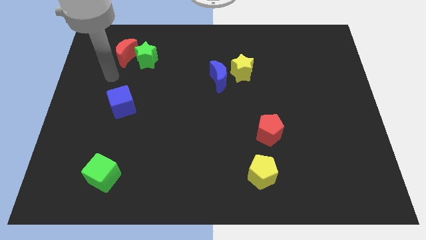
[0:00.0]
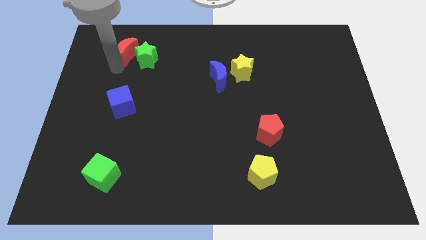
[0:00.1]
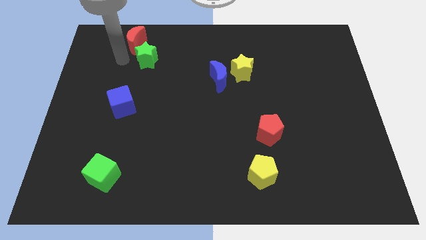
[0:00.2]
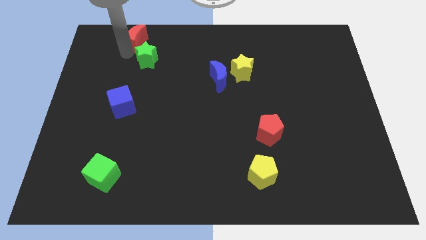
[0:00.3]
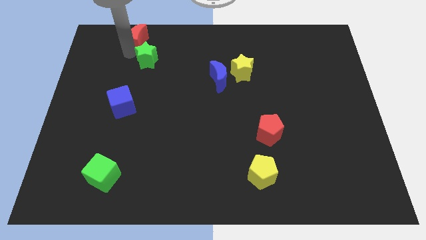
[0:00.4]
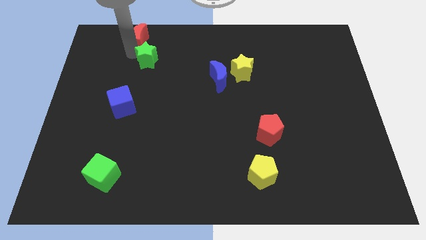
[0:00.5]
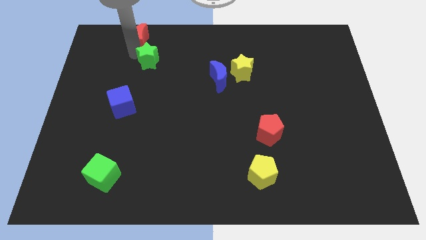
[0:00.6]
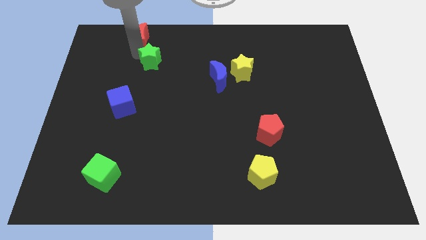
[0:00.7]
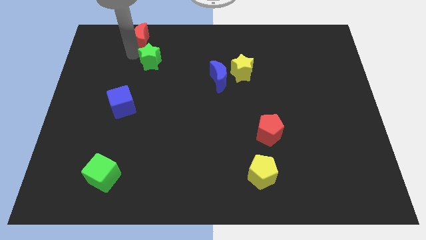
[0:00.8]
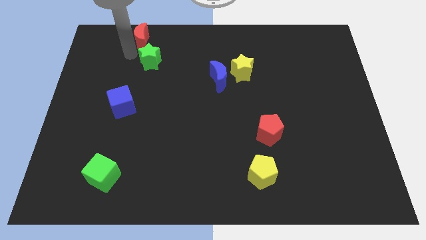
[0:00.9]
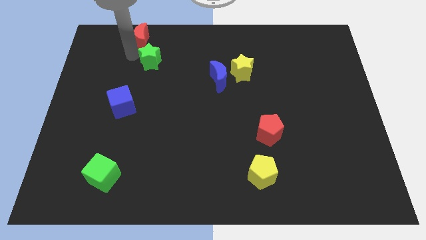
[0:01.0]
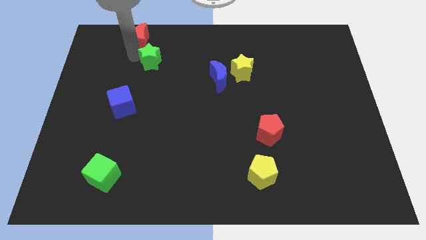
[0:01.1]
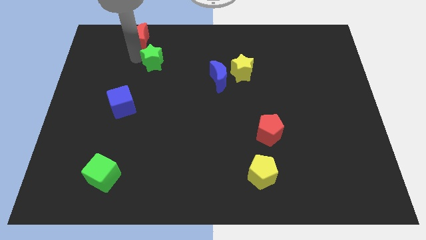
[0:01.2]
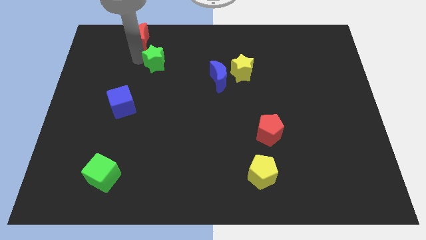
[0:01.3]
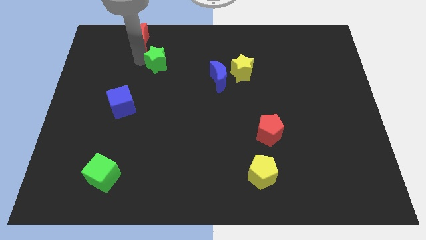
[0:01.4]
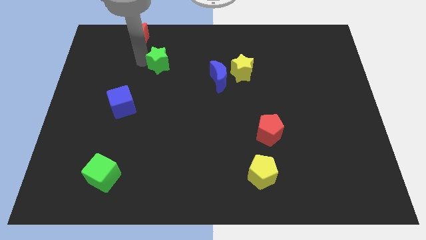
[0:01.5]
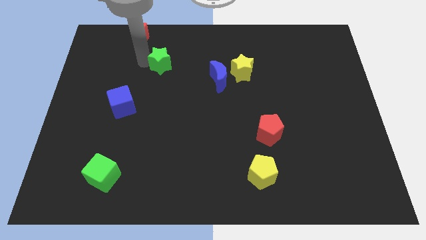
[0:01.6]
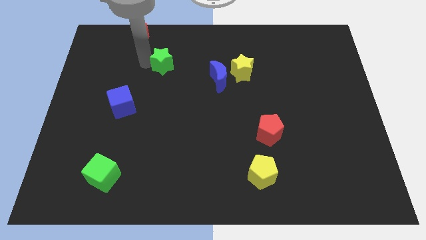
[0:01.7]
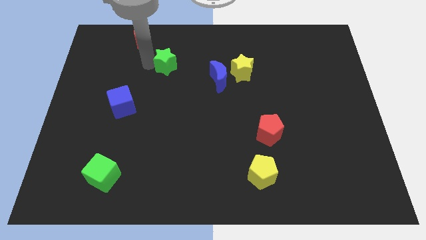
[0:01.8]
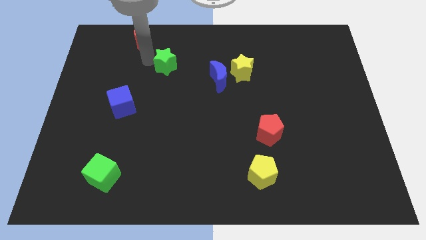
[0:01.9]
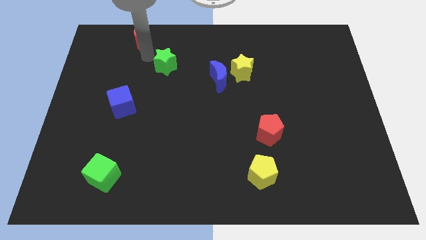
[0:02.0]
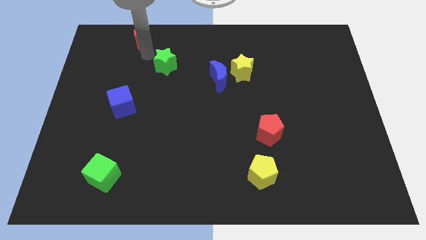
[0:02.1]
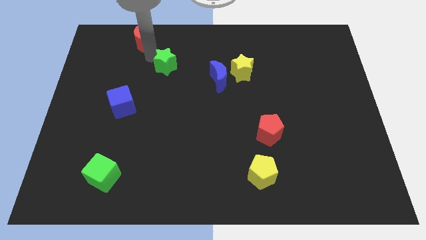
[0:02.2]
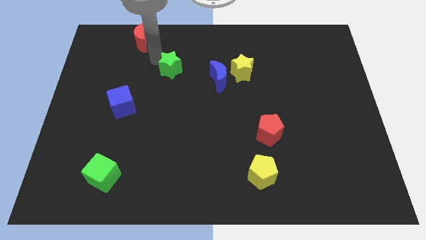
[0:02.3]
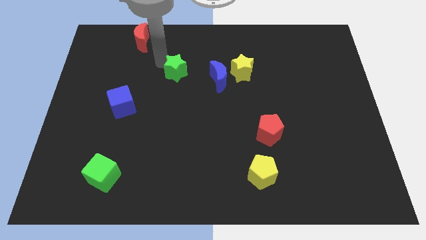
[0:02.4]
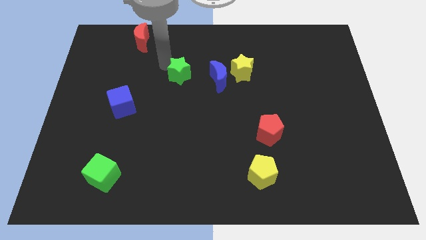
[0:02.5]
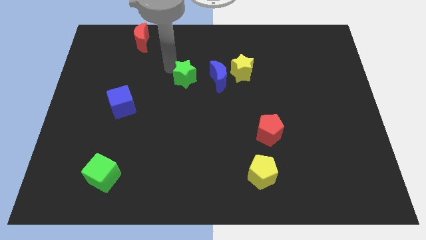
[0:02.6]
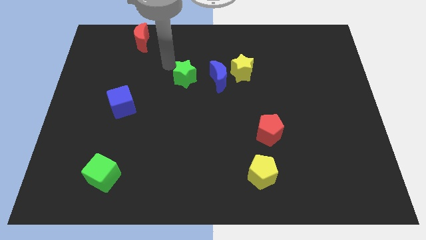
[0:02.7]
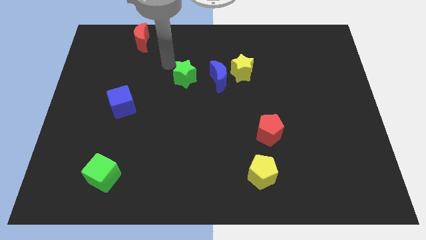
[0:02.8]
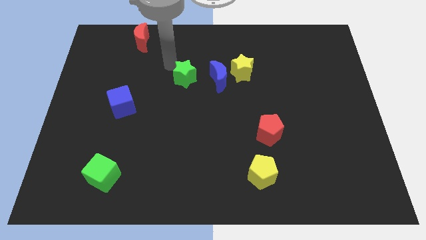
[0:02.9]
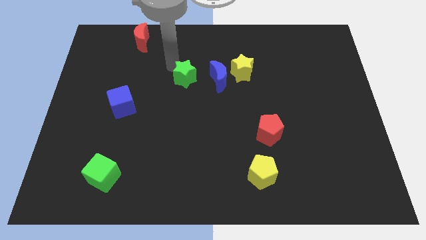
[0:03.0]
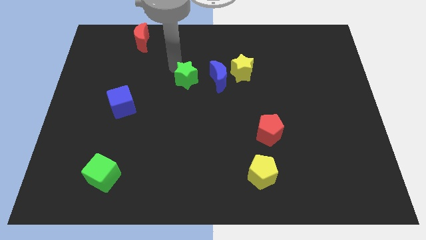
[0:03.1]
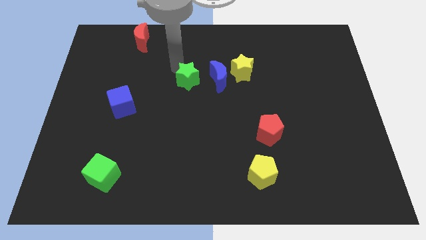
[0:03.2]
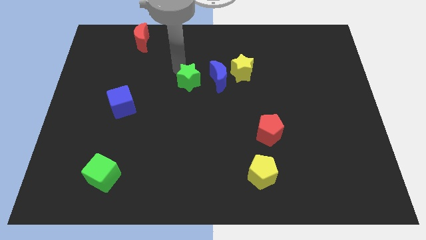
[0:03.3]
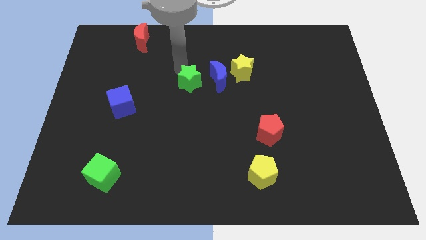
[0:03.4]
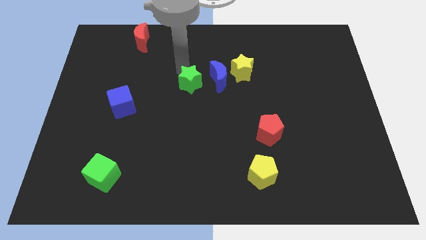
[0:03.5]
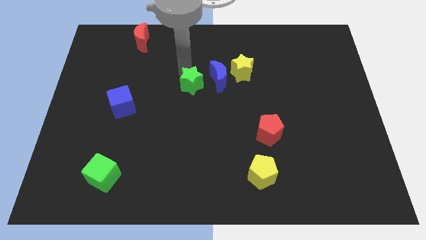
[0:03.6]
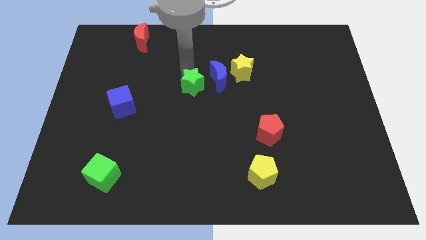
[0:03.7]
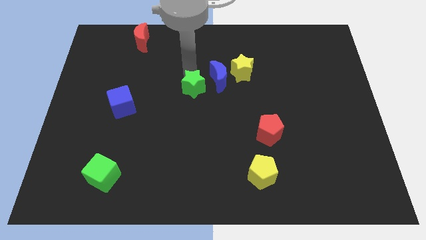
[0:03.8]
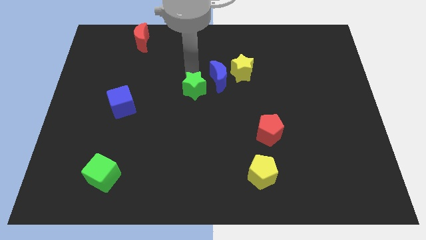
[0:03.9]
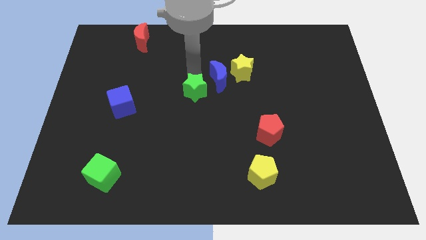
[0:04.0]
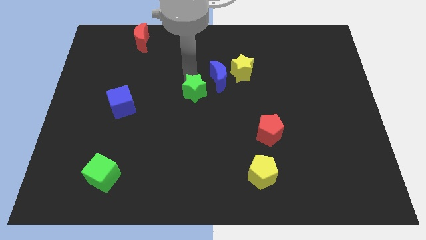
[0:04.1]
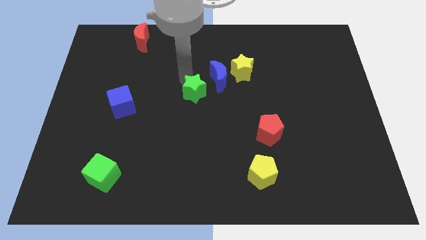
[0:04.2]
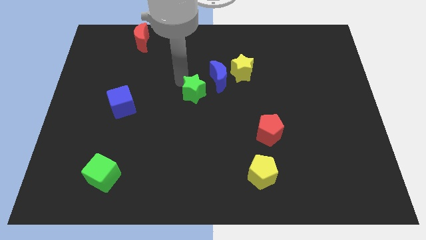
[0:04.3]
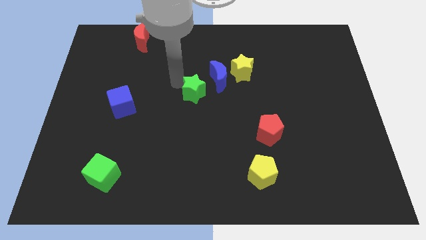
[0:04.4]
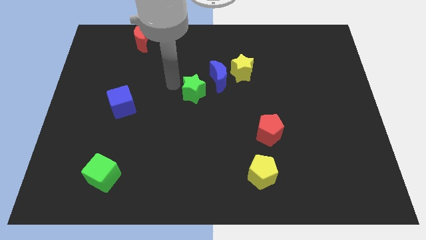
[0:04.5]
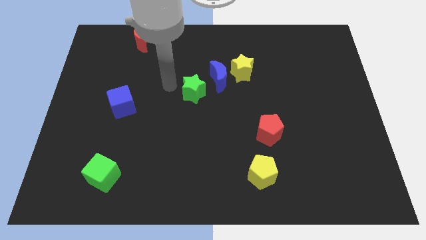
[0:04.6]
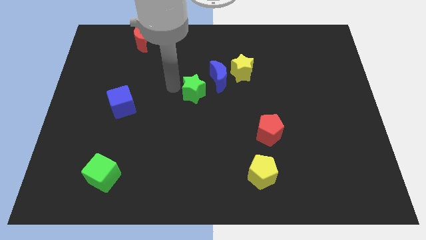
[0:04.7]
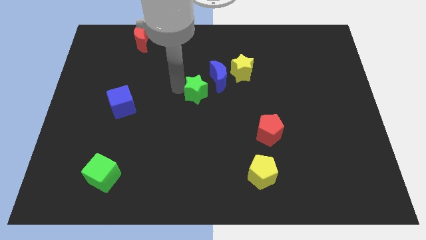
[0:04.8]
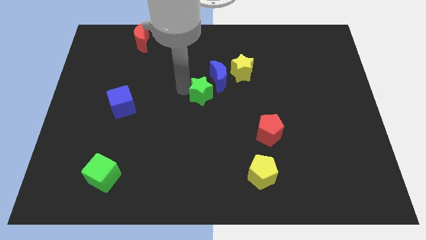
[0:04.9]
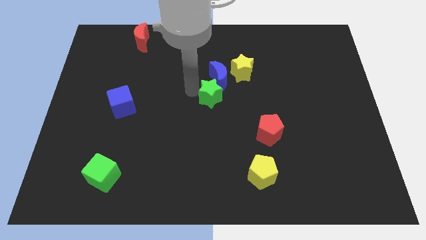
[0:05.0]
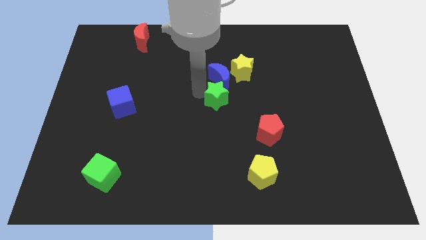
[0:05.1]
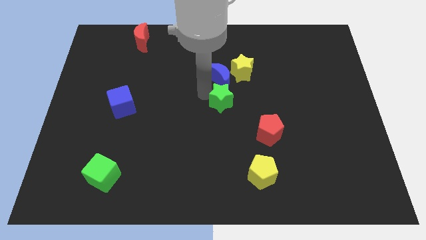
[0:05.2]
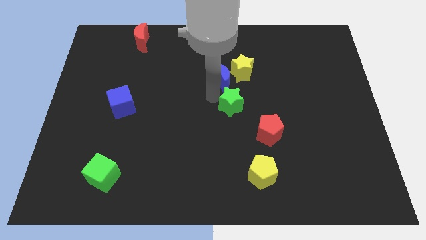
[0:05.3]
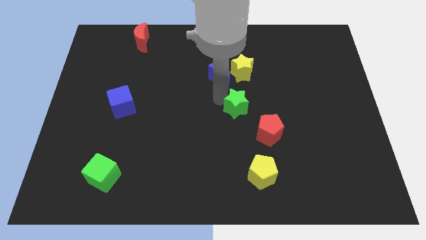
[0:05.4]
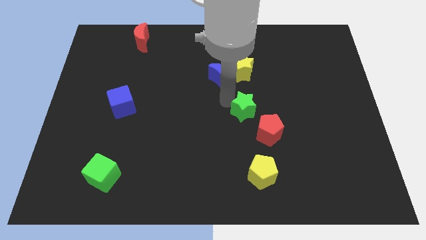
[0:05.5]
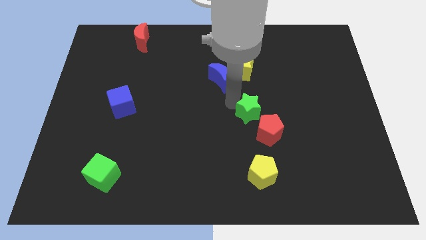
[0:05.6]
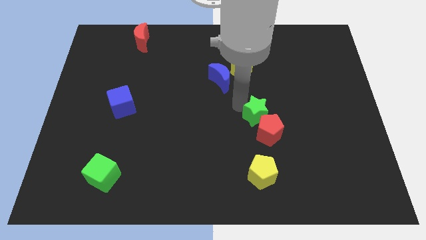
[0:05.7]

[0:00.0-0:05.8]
push the green star close to the red pentagon

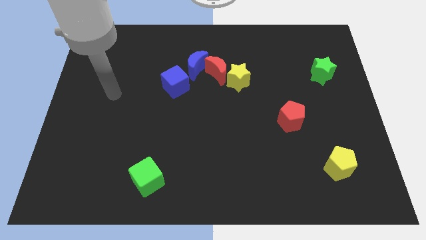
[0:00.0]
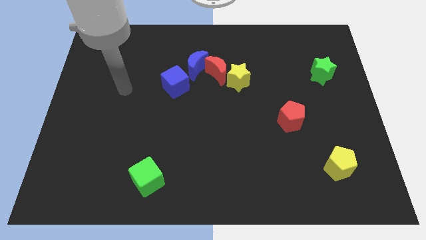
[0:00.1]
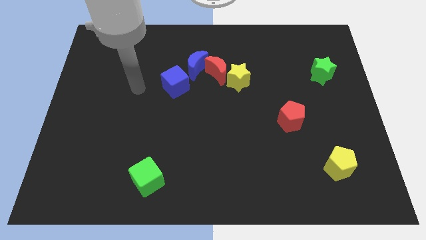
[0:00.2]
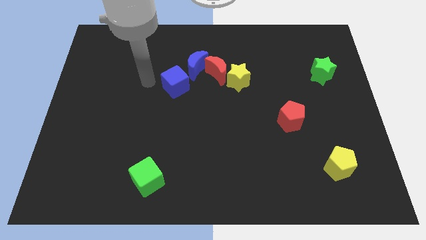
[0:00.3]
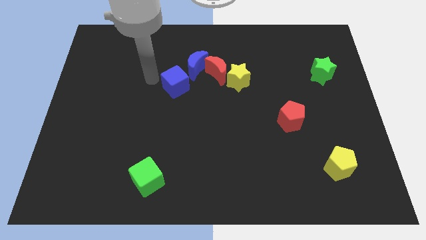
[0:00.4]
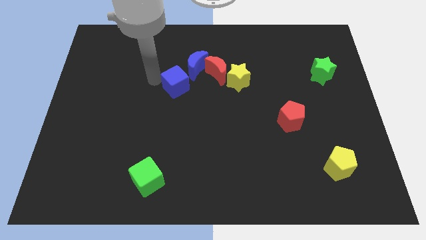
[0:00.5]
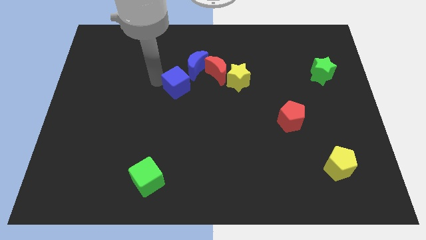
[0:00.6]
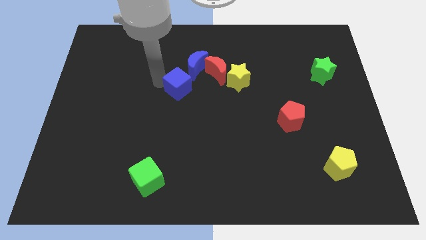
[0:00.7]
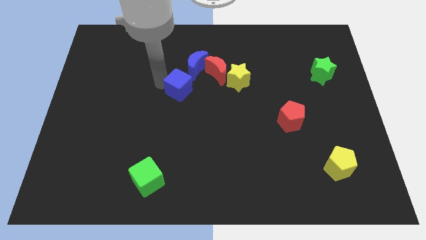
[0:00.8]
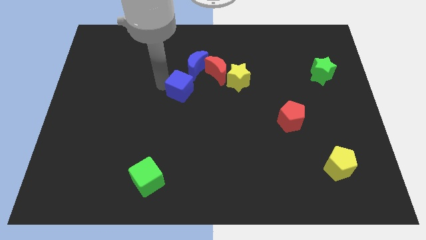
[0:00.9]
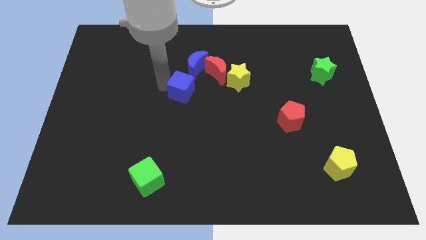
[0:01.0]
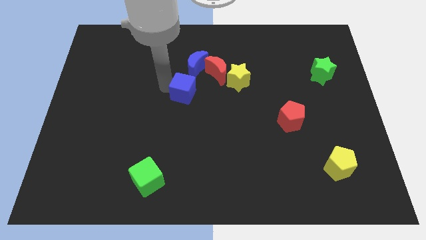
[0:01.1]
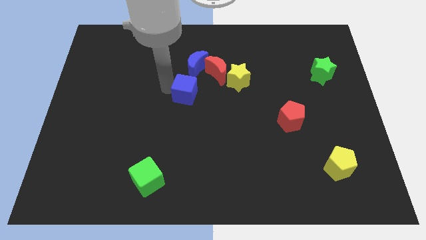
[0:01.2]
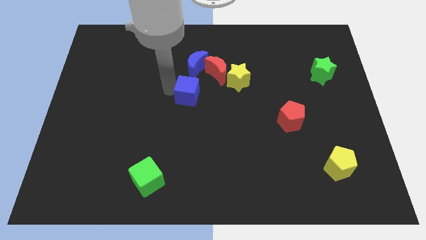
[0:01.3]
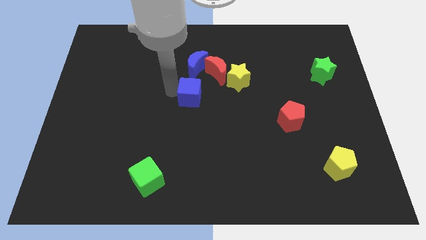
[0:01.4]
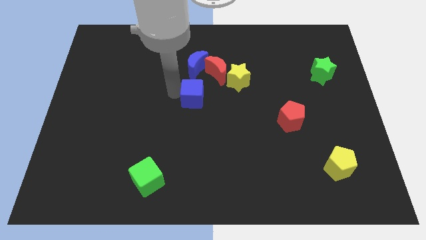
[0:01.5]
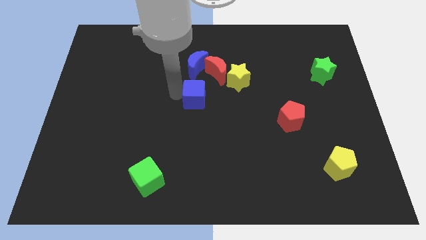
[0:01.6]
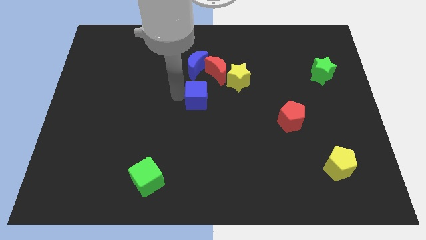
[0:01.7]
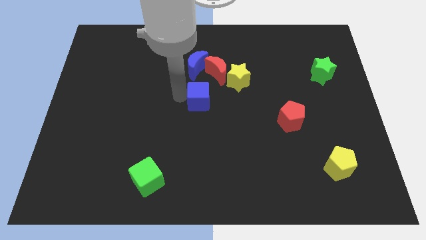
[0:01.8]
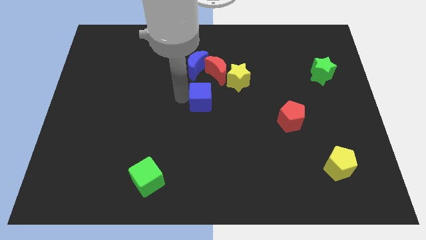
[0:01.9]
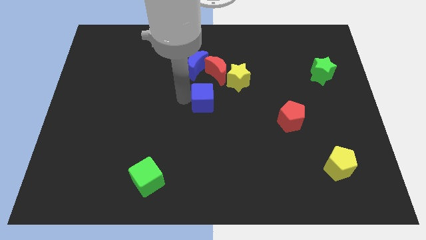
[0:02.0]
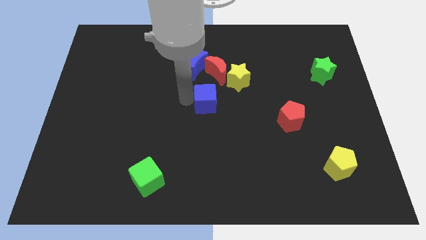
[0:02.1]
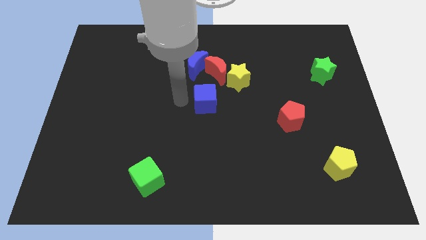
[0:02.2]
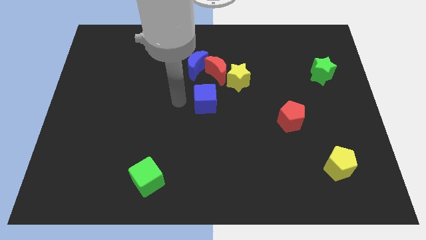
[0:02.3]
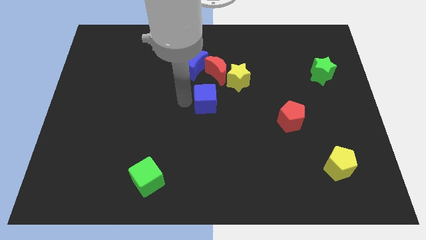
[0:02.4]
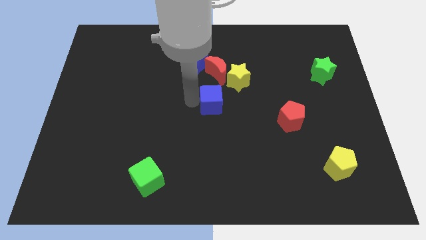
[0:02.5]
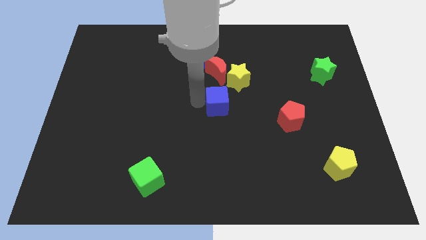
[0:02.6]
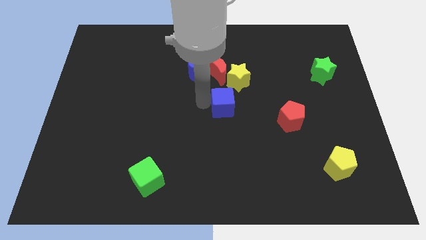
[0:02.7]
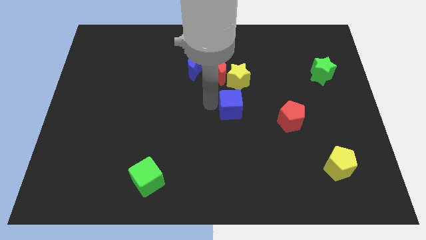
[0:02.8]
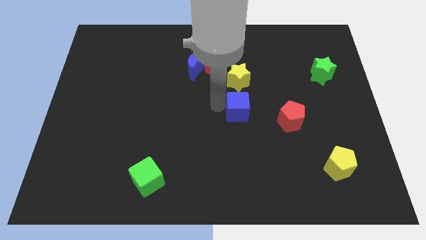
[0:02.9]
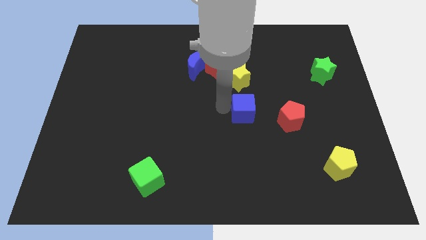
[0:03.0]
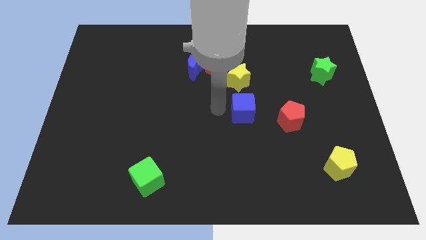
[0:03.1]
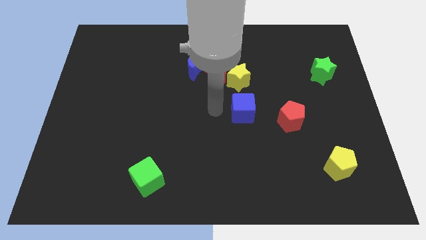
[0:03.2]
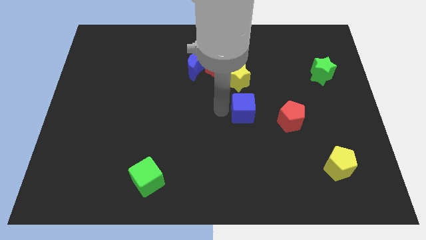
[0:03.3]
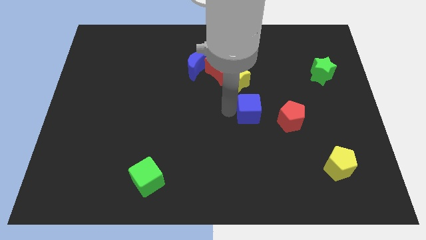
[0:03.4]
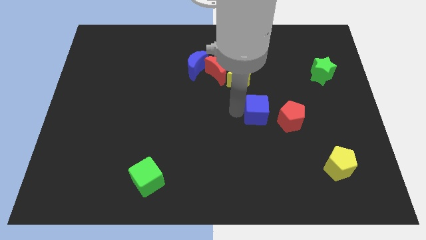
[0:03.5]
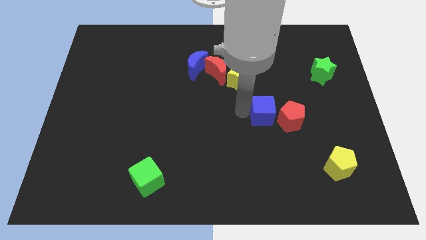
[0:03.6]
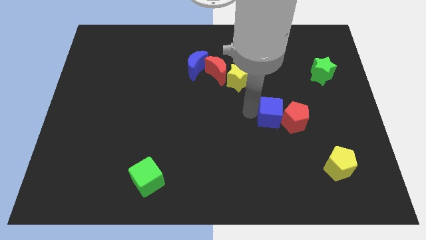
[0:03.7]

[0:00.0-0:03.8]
put the blue cube towards the red pentagon
